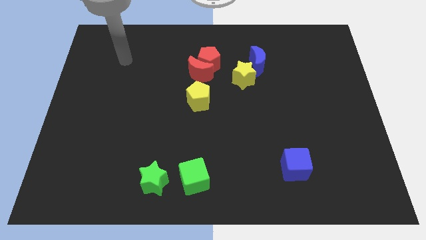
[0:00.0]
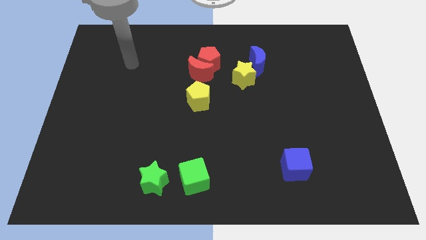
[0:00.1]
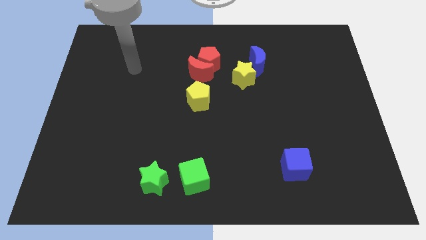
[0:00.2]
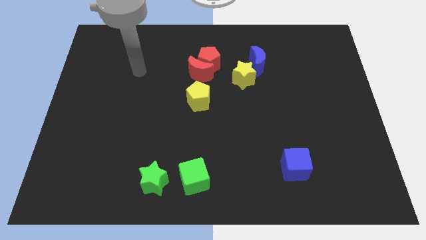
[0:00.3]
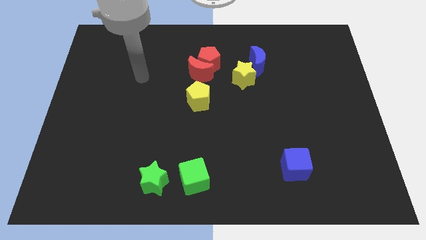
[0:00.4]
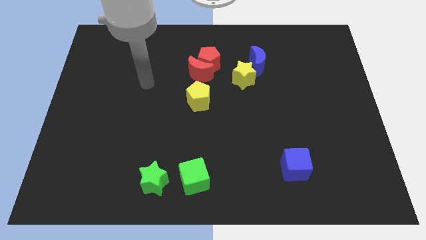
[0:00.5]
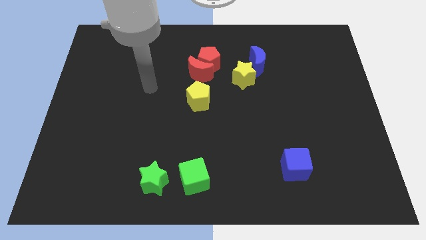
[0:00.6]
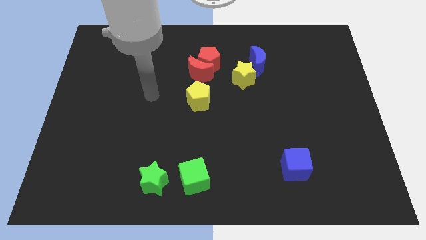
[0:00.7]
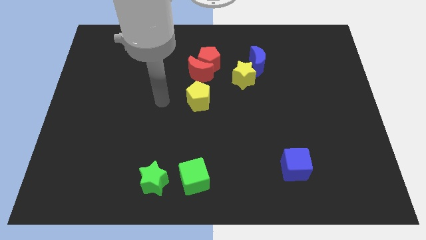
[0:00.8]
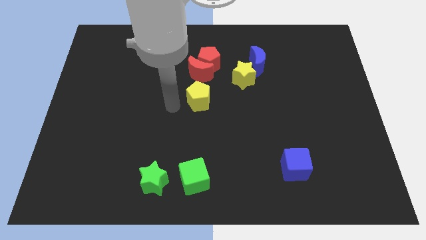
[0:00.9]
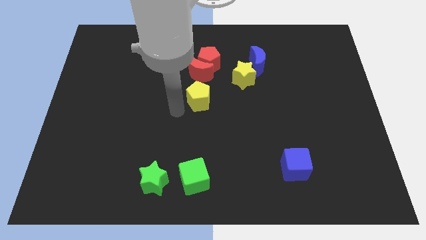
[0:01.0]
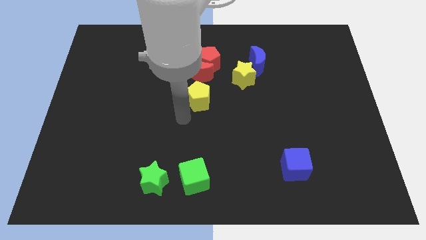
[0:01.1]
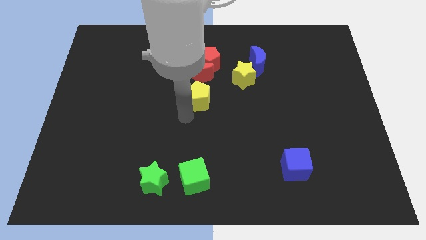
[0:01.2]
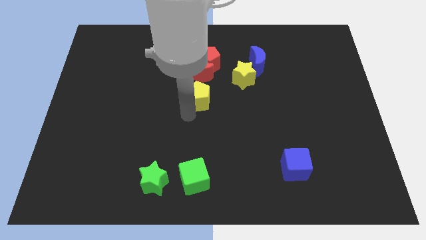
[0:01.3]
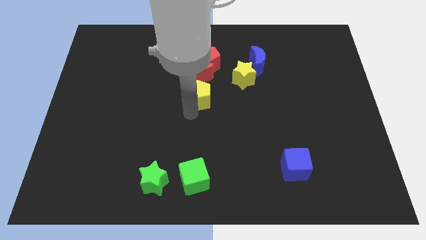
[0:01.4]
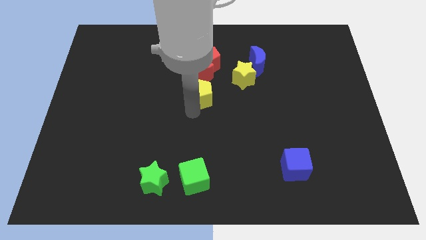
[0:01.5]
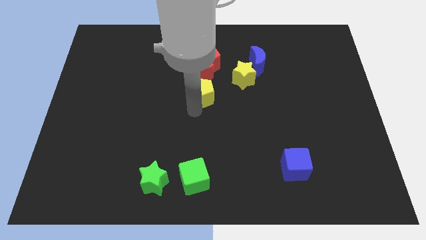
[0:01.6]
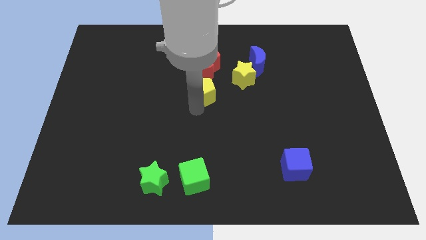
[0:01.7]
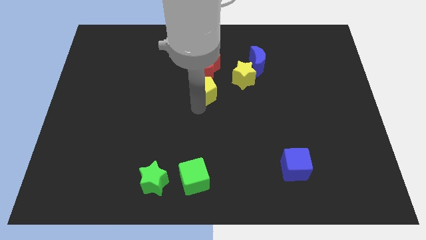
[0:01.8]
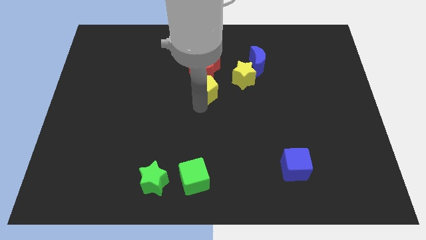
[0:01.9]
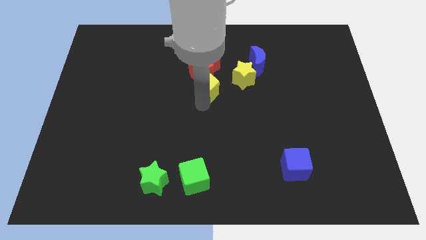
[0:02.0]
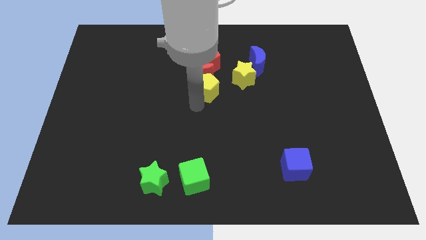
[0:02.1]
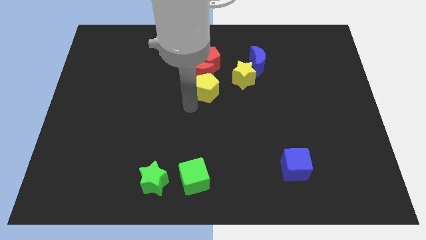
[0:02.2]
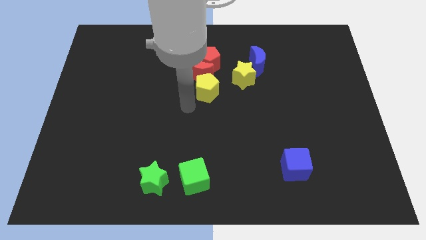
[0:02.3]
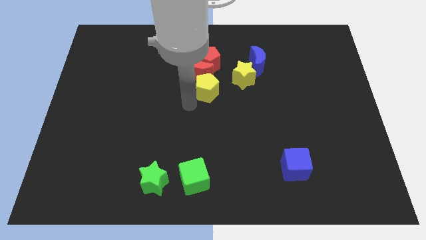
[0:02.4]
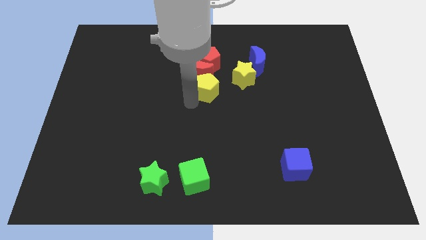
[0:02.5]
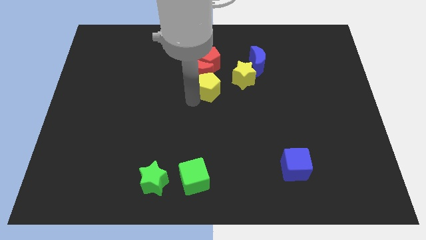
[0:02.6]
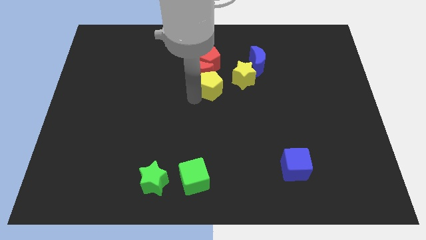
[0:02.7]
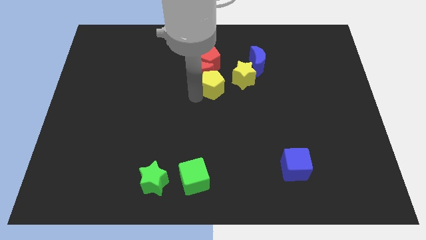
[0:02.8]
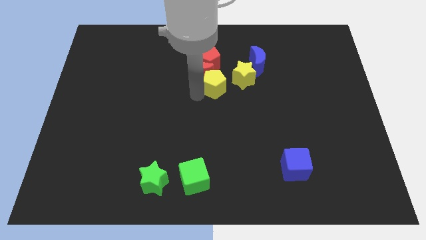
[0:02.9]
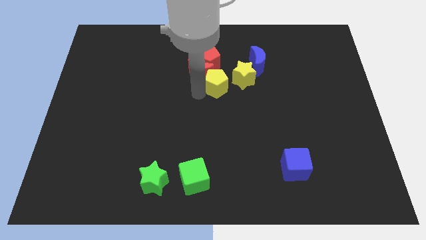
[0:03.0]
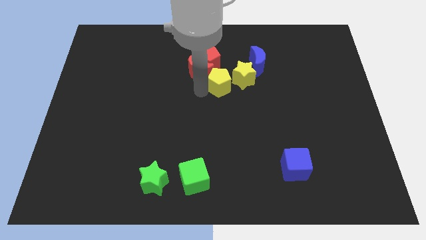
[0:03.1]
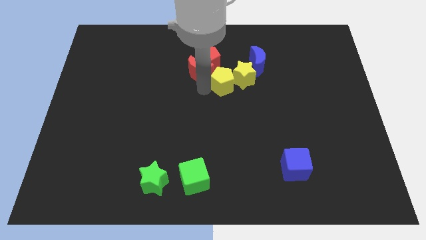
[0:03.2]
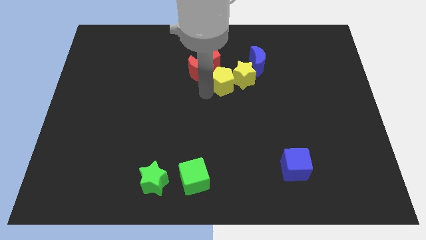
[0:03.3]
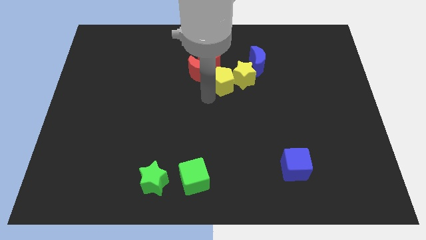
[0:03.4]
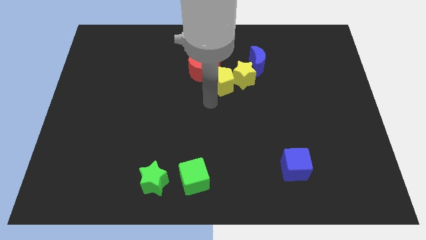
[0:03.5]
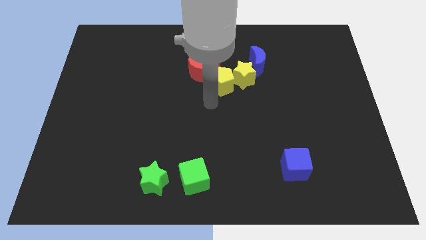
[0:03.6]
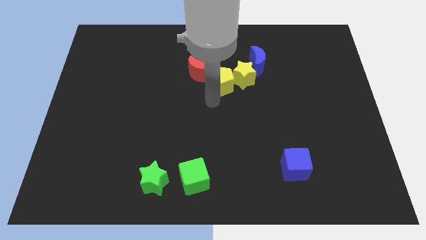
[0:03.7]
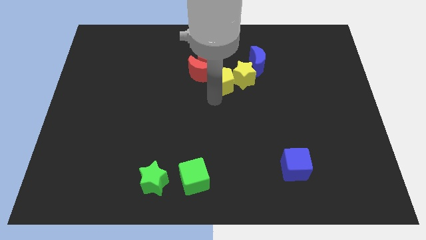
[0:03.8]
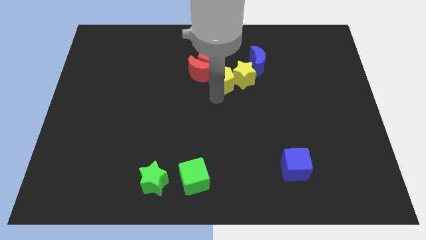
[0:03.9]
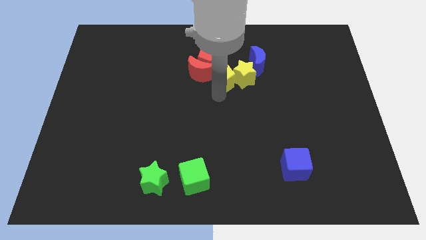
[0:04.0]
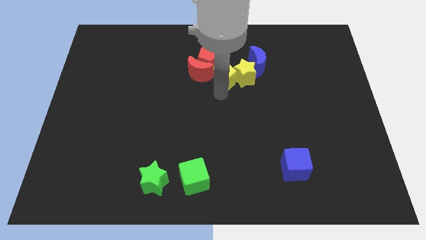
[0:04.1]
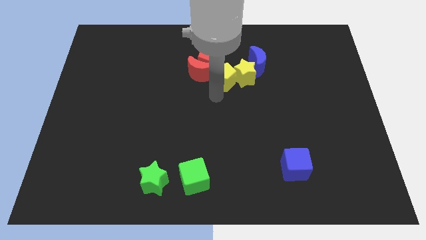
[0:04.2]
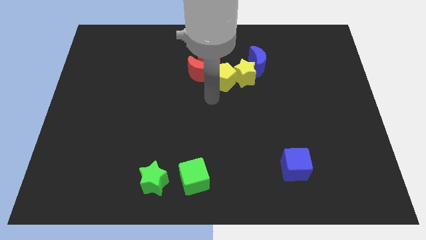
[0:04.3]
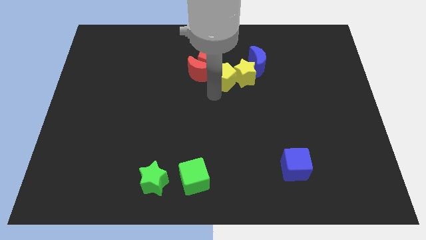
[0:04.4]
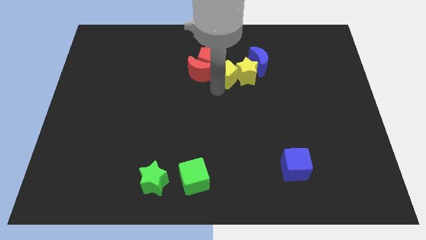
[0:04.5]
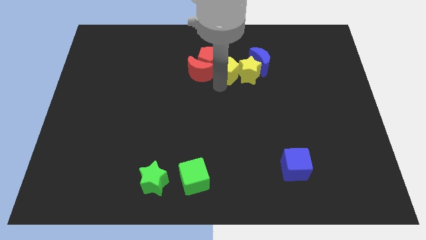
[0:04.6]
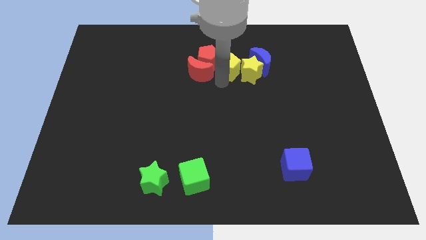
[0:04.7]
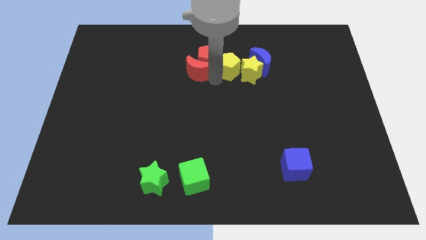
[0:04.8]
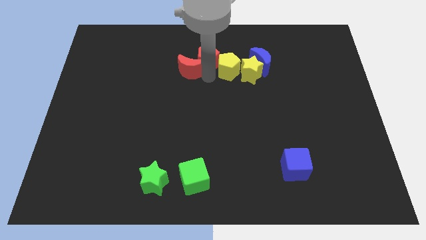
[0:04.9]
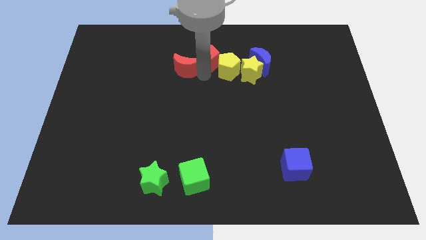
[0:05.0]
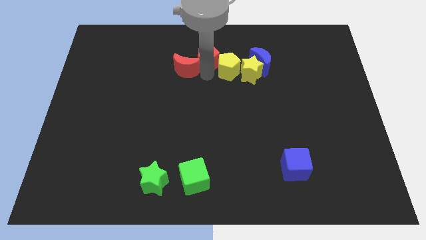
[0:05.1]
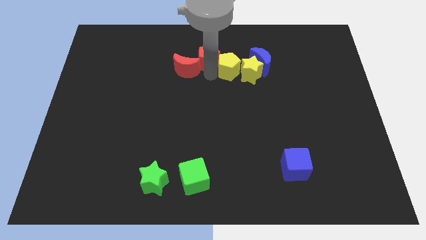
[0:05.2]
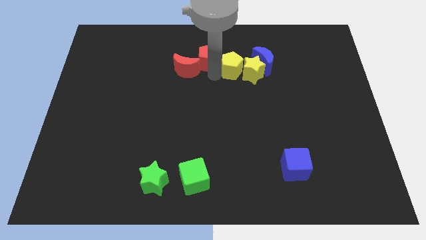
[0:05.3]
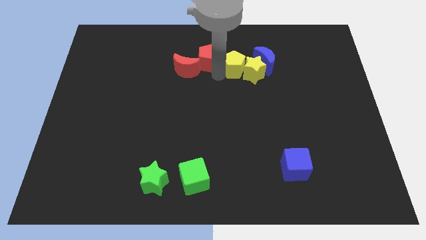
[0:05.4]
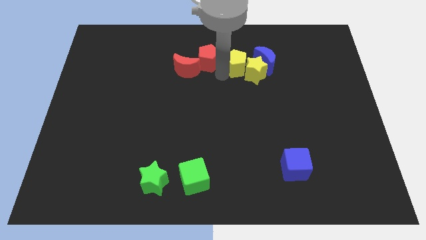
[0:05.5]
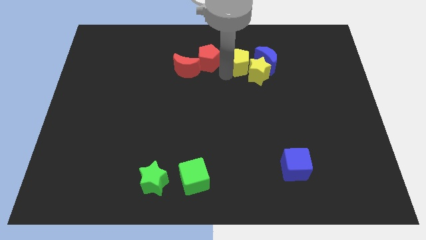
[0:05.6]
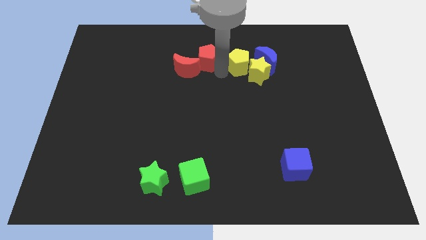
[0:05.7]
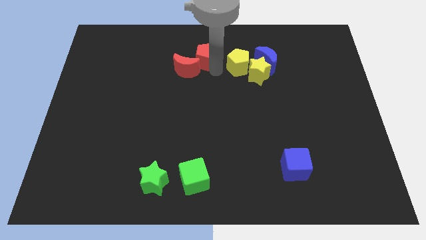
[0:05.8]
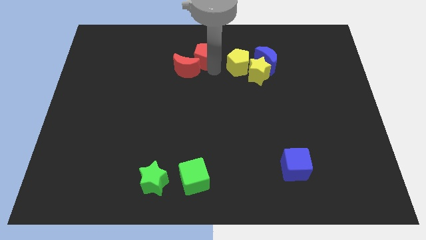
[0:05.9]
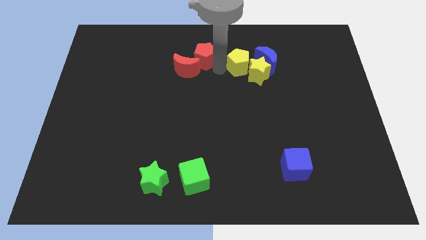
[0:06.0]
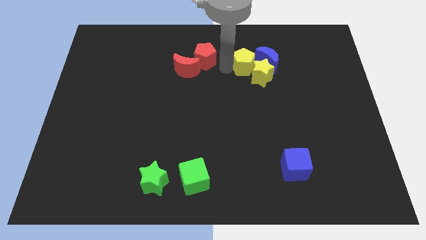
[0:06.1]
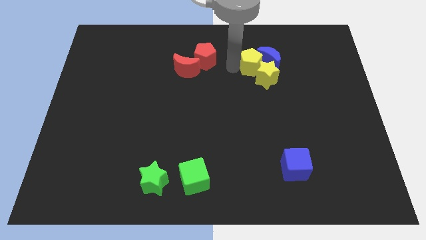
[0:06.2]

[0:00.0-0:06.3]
push the yellow pentagon towards the blue moon

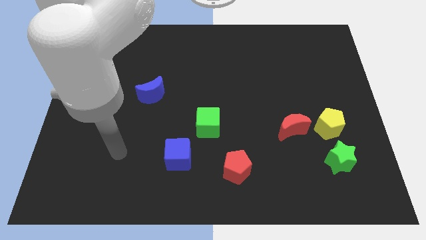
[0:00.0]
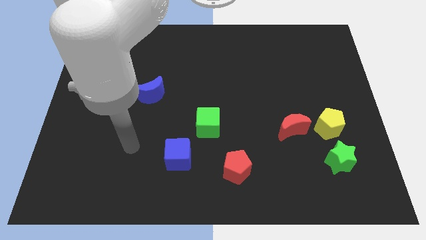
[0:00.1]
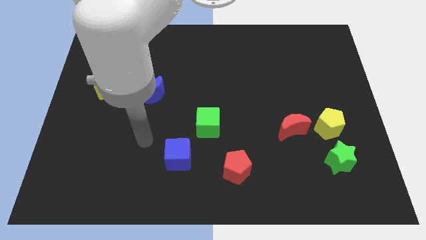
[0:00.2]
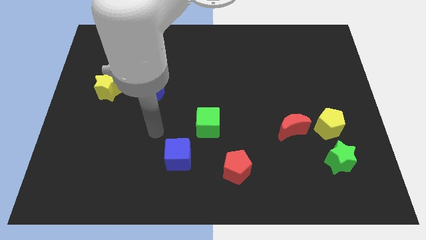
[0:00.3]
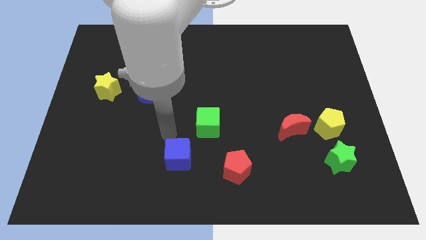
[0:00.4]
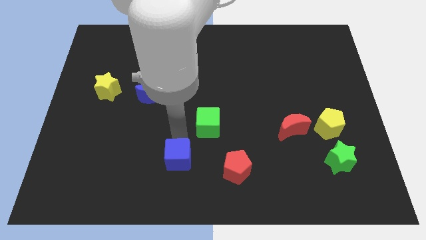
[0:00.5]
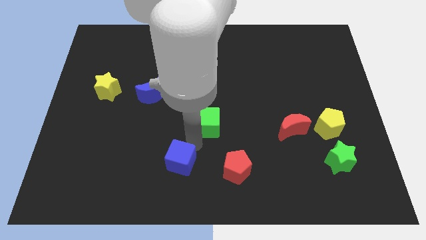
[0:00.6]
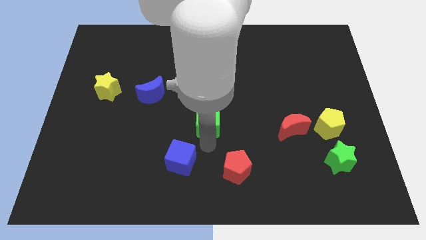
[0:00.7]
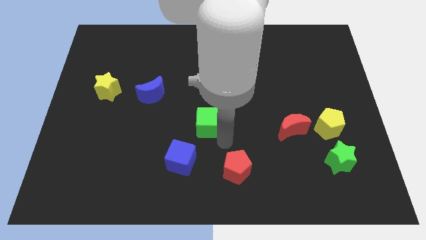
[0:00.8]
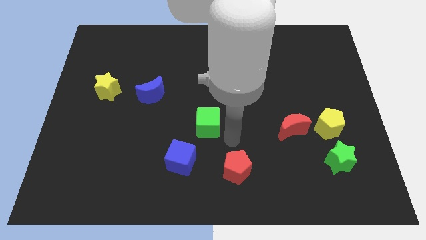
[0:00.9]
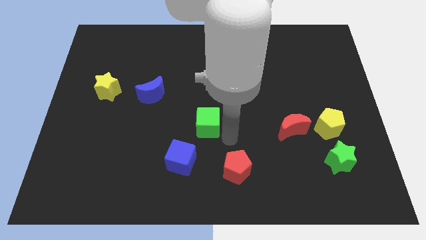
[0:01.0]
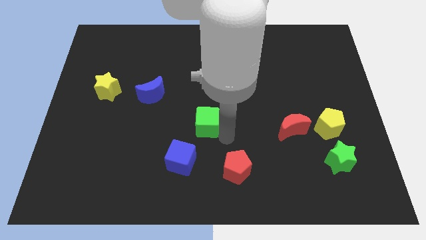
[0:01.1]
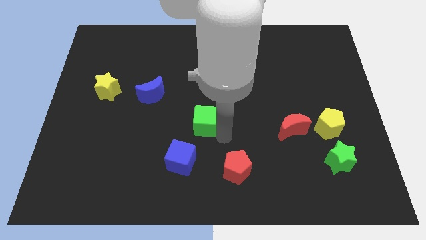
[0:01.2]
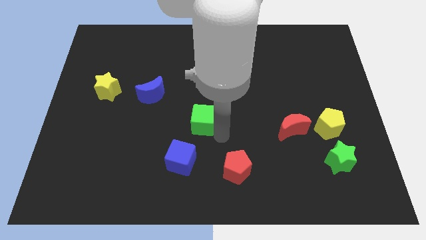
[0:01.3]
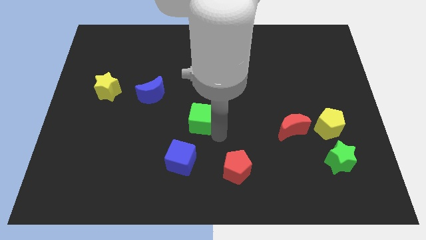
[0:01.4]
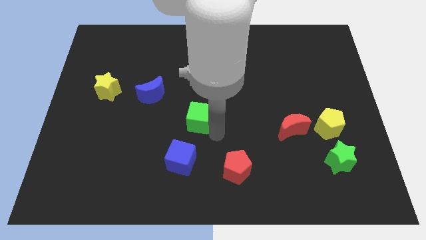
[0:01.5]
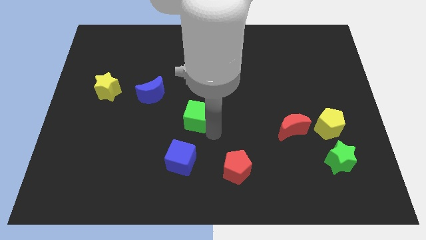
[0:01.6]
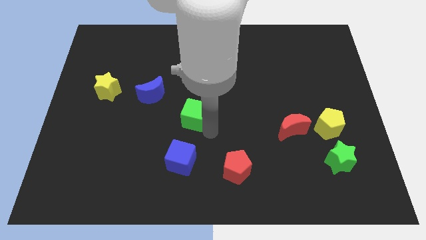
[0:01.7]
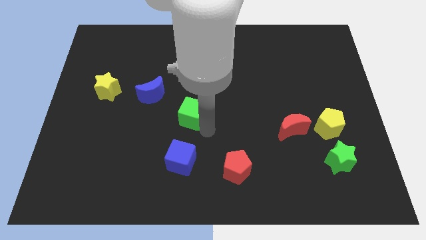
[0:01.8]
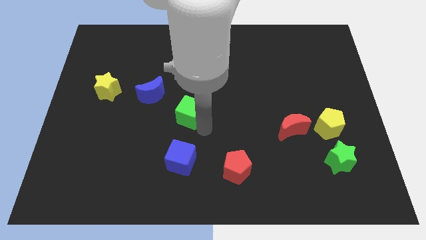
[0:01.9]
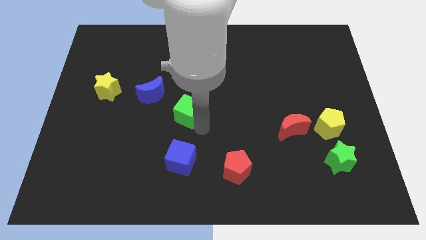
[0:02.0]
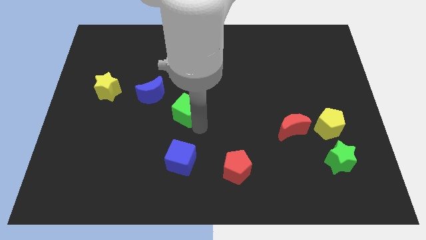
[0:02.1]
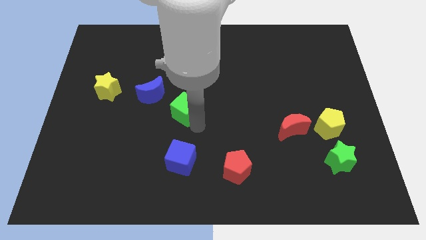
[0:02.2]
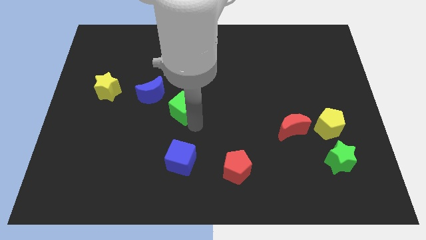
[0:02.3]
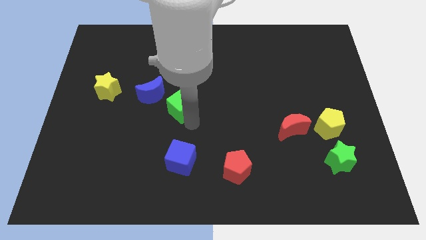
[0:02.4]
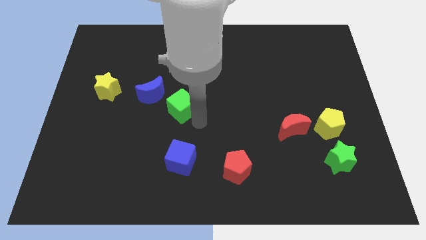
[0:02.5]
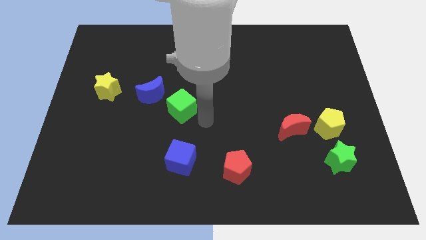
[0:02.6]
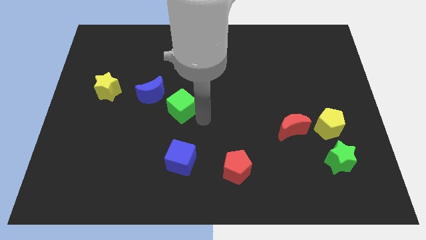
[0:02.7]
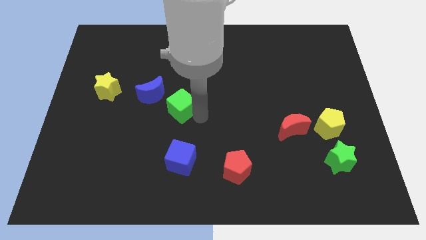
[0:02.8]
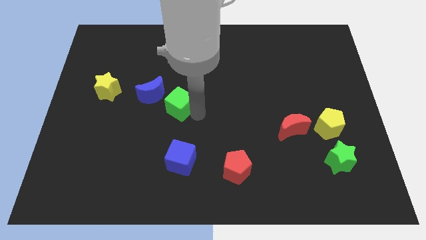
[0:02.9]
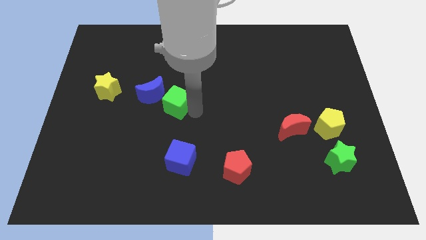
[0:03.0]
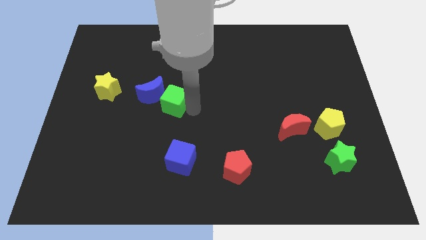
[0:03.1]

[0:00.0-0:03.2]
put the green cube close to the blue moon
